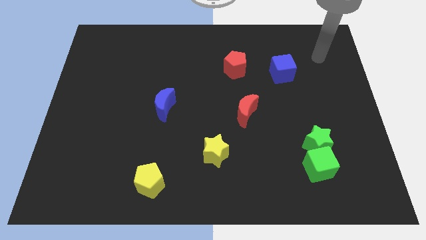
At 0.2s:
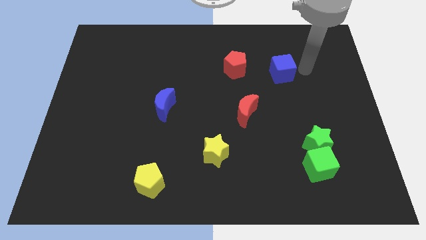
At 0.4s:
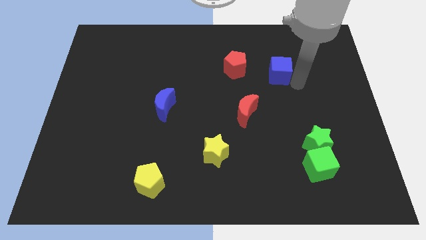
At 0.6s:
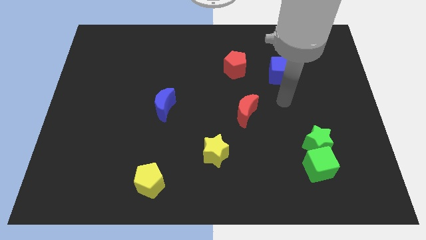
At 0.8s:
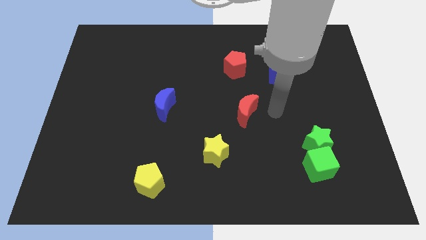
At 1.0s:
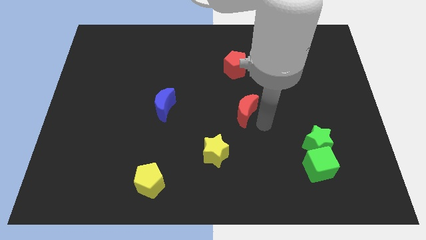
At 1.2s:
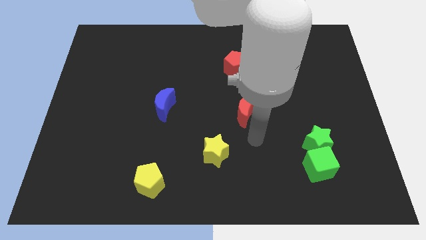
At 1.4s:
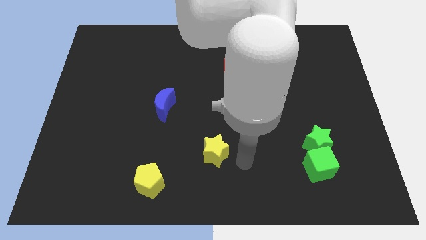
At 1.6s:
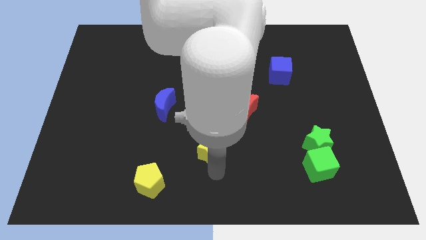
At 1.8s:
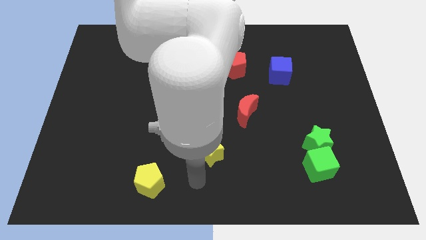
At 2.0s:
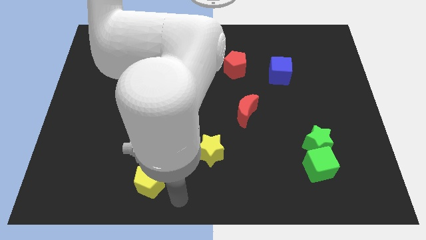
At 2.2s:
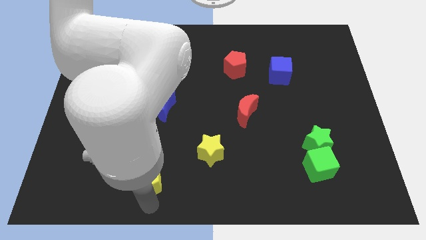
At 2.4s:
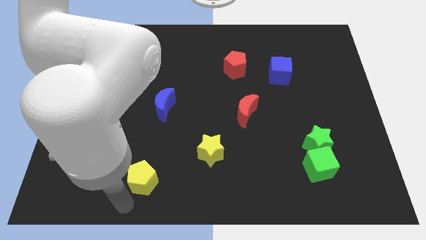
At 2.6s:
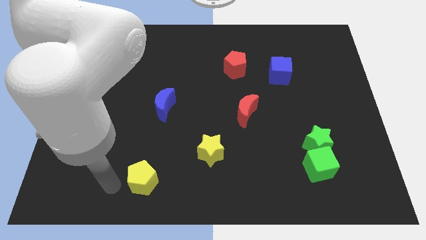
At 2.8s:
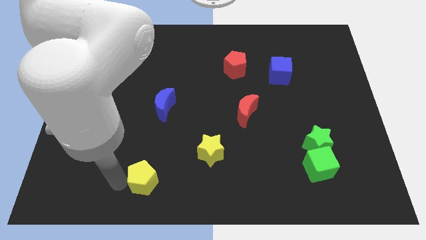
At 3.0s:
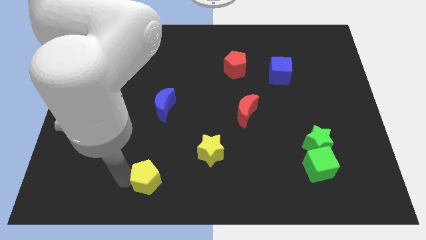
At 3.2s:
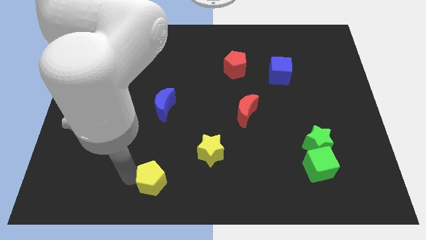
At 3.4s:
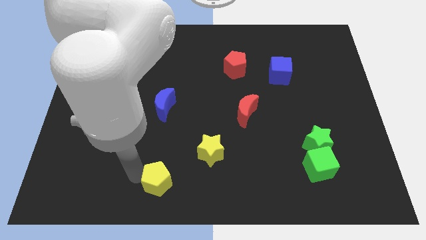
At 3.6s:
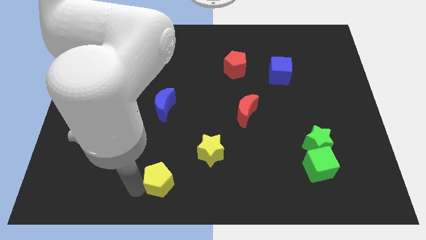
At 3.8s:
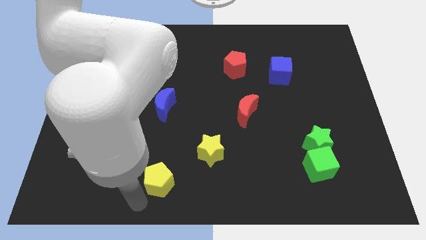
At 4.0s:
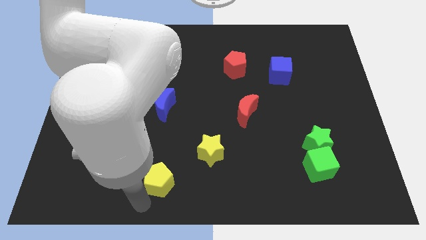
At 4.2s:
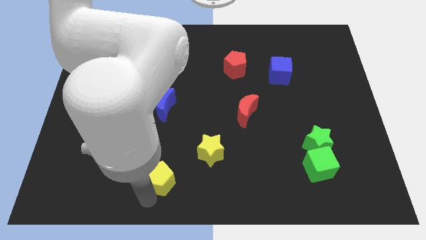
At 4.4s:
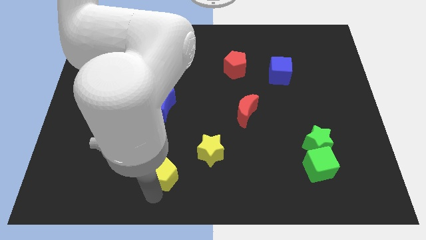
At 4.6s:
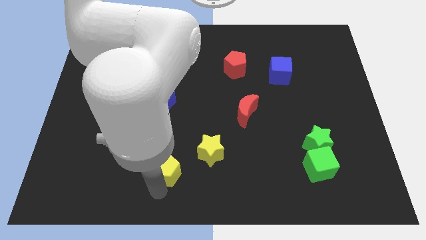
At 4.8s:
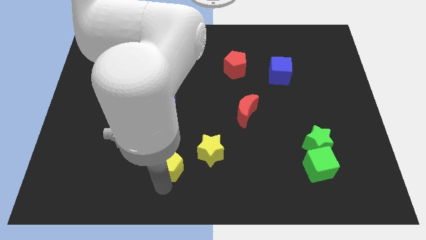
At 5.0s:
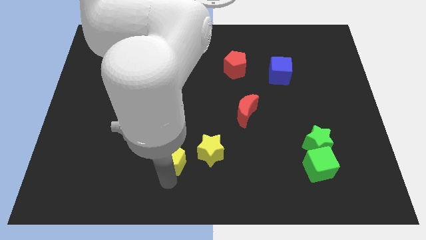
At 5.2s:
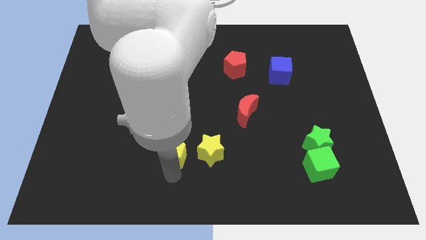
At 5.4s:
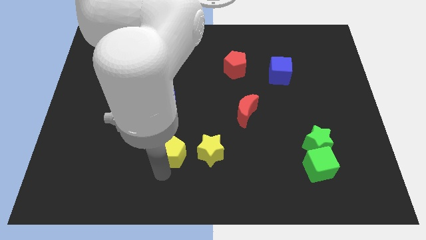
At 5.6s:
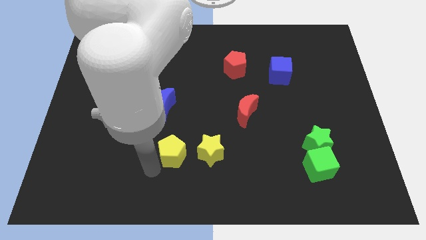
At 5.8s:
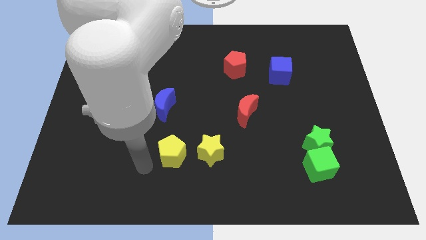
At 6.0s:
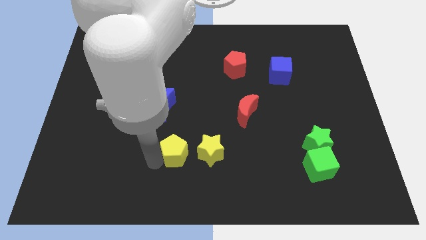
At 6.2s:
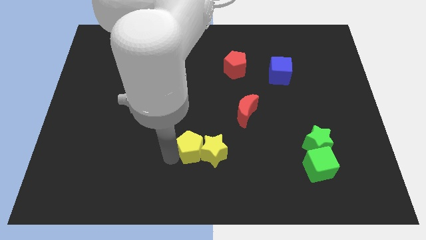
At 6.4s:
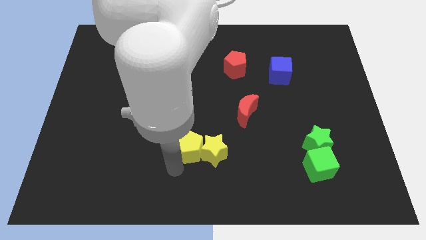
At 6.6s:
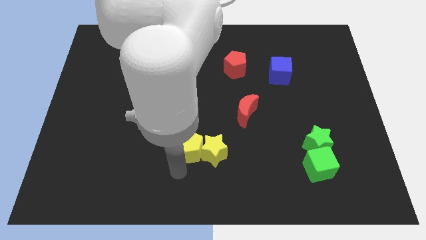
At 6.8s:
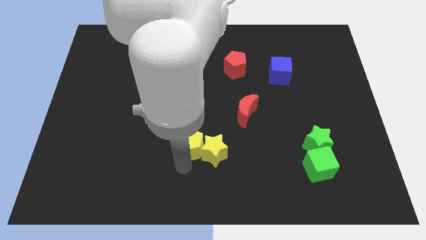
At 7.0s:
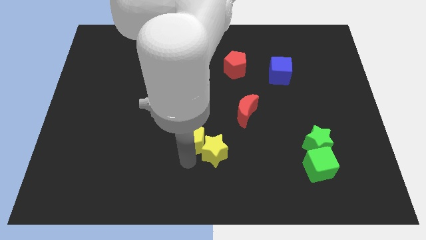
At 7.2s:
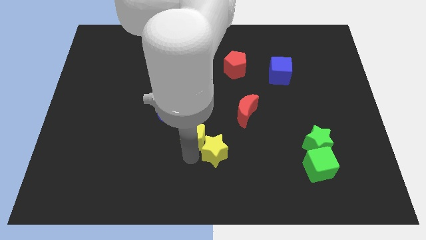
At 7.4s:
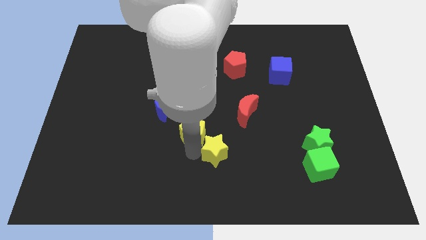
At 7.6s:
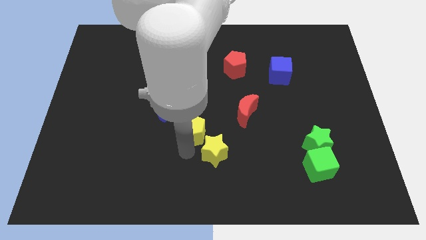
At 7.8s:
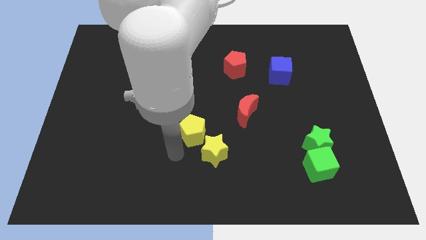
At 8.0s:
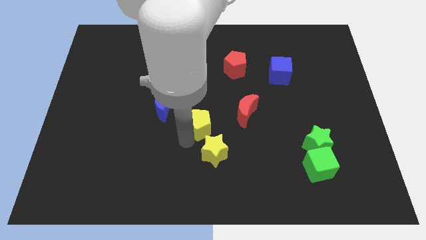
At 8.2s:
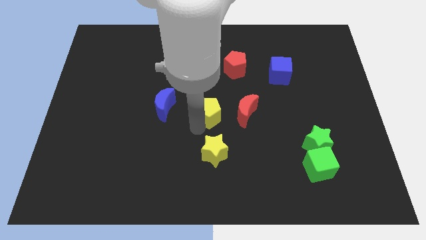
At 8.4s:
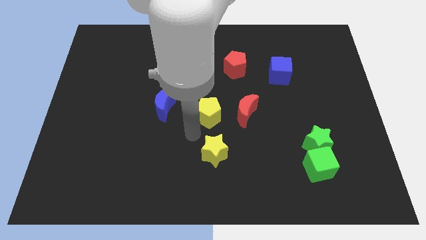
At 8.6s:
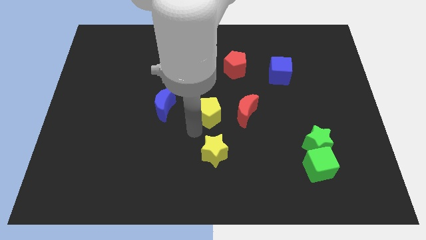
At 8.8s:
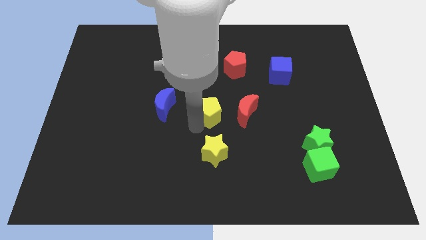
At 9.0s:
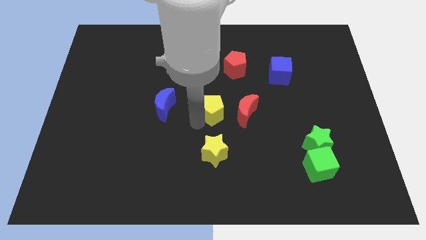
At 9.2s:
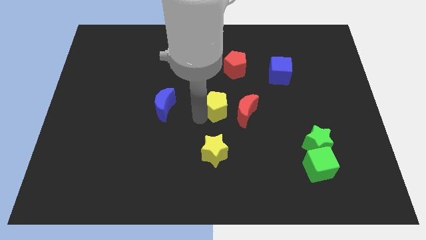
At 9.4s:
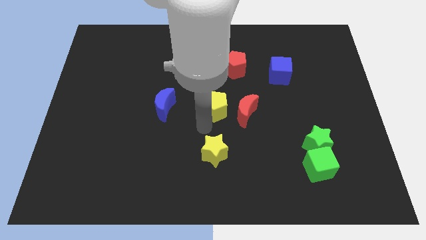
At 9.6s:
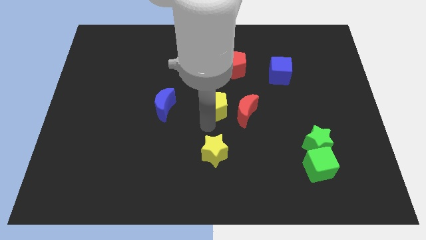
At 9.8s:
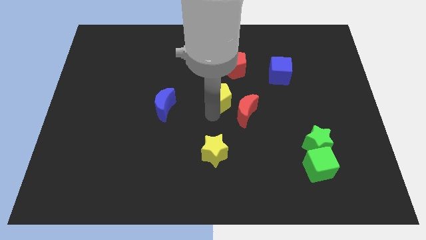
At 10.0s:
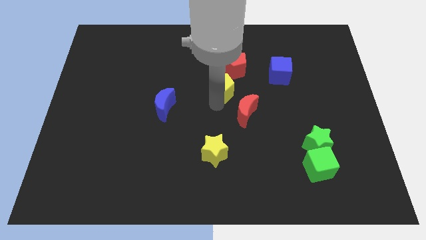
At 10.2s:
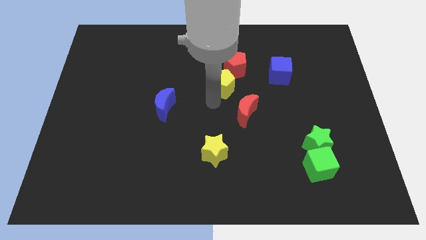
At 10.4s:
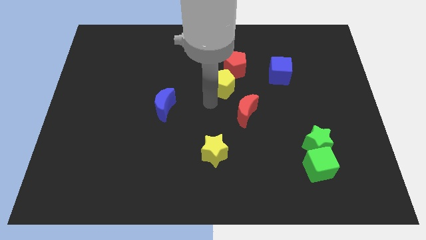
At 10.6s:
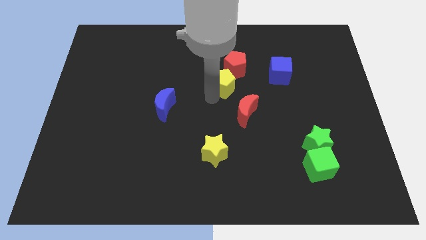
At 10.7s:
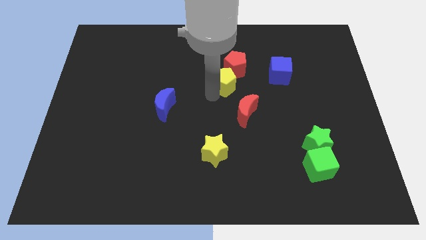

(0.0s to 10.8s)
push the yellow pentagon towards the red pentagon

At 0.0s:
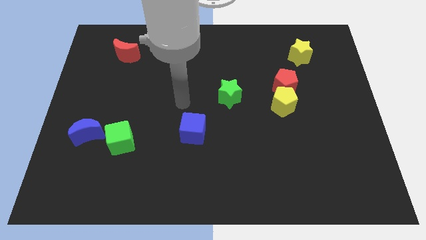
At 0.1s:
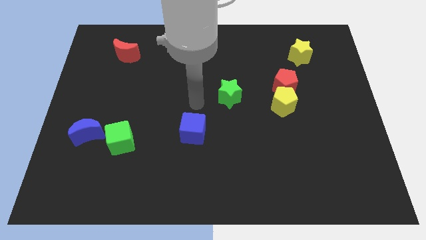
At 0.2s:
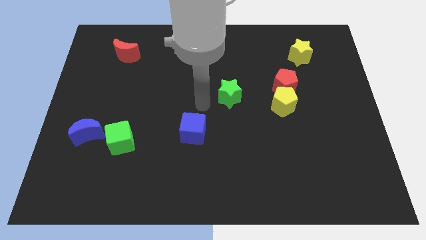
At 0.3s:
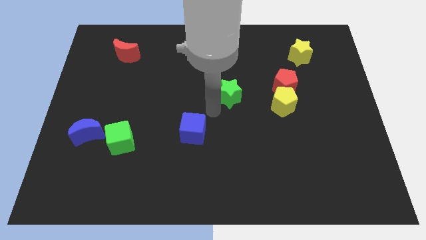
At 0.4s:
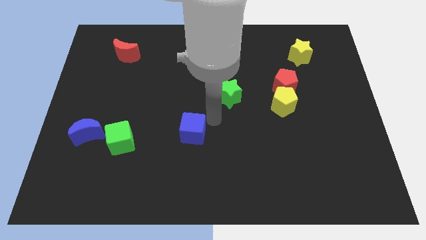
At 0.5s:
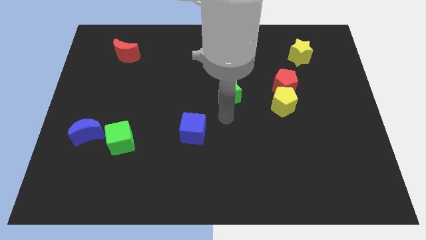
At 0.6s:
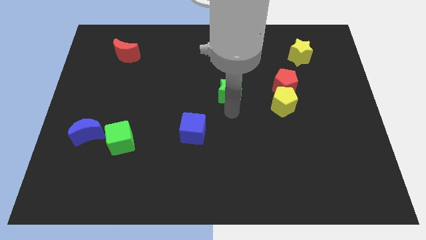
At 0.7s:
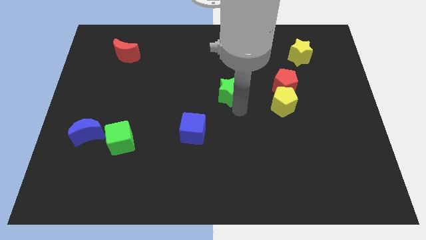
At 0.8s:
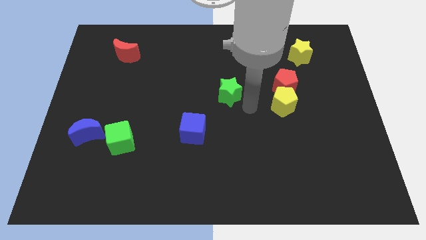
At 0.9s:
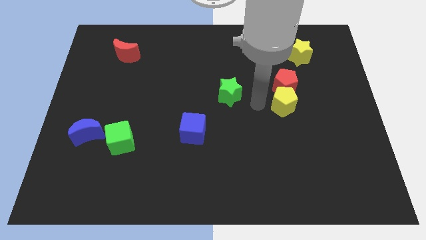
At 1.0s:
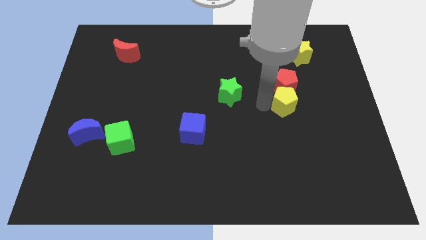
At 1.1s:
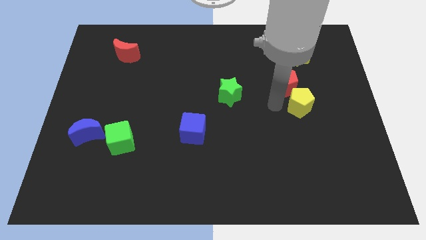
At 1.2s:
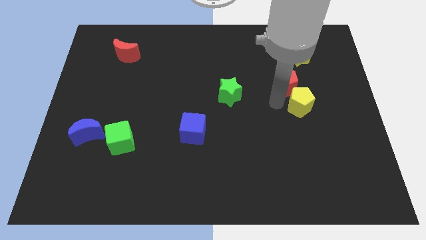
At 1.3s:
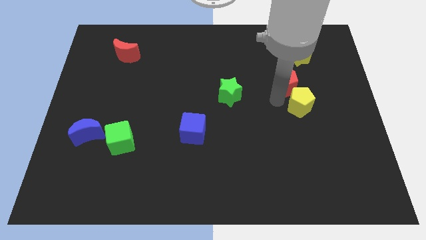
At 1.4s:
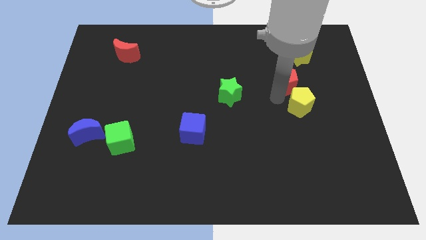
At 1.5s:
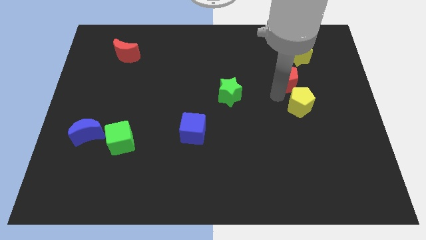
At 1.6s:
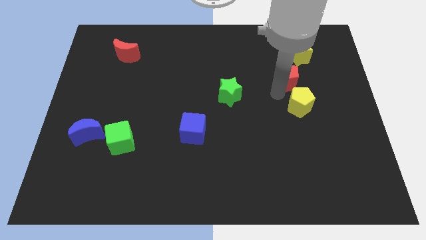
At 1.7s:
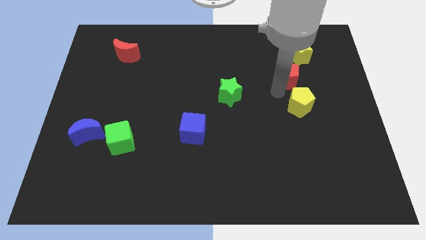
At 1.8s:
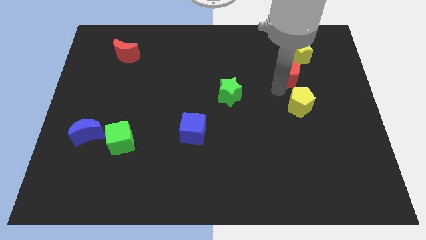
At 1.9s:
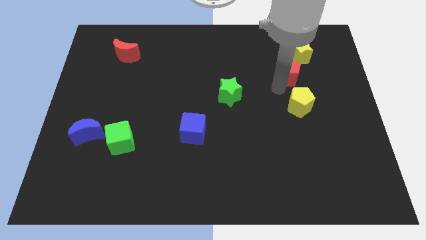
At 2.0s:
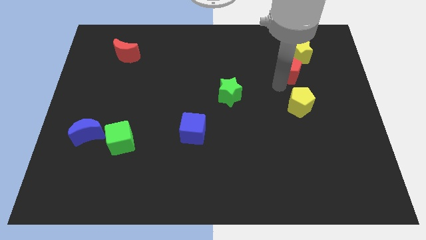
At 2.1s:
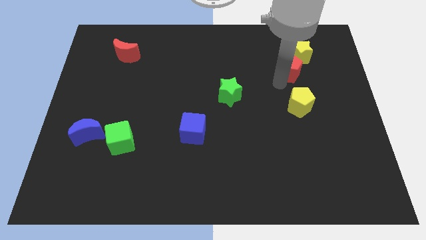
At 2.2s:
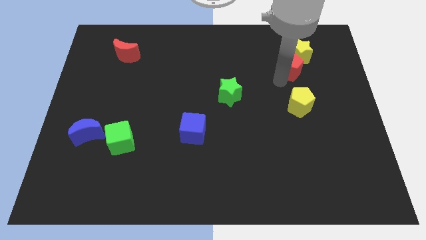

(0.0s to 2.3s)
put the red pentagon next to the yellow star

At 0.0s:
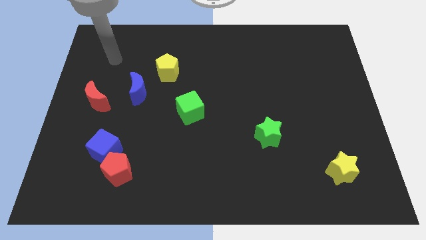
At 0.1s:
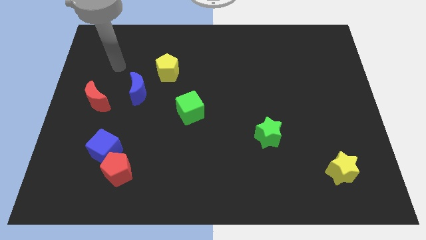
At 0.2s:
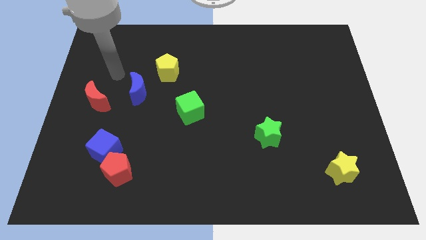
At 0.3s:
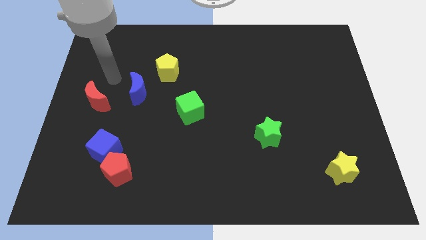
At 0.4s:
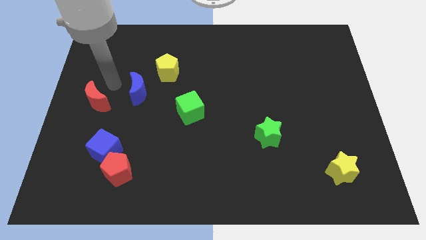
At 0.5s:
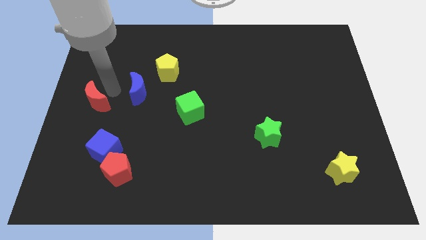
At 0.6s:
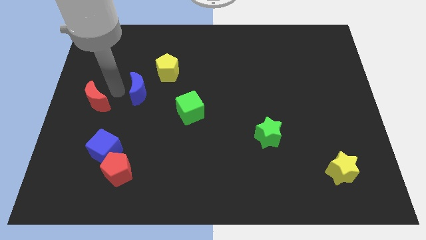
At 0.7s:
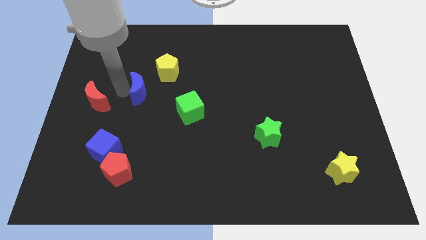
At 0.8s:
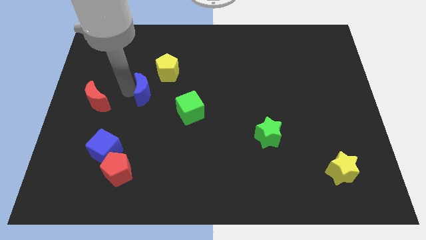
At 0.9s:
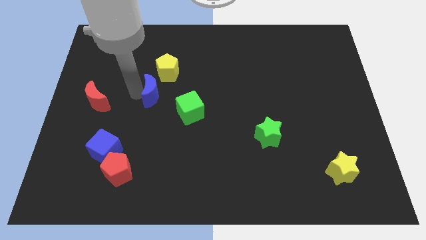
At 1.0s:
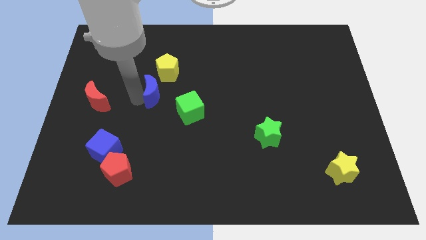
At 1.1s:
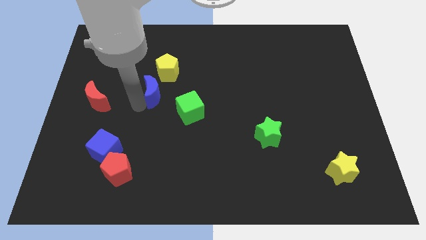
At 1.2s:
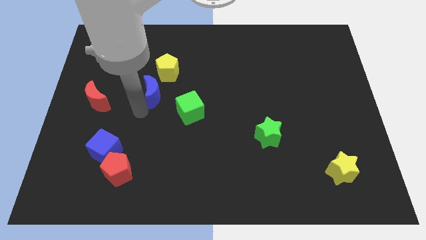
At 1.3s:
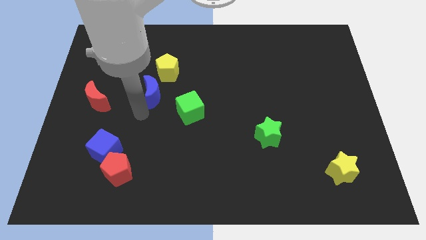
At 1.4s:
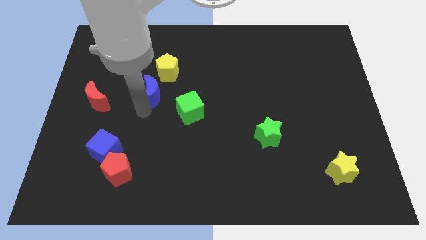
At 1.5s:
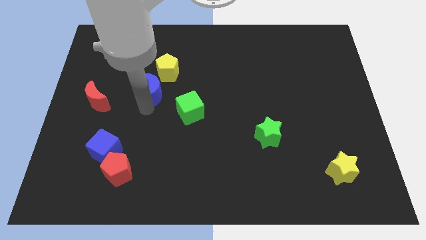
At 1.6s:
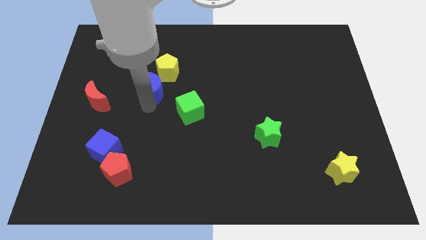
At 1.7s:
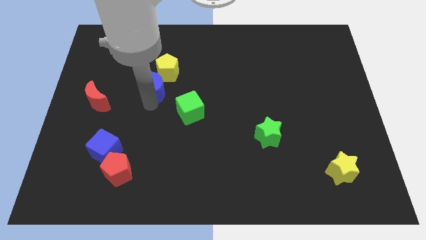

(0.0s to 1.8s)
slide the blue moon to the yellow pentagon
